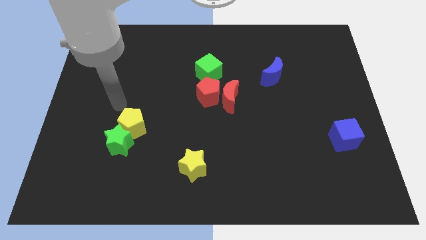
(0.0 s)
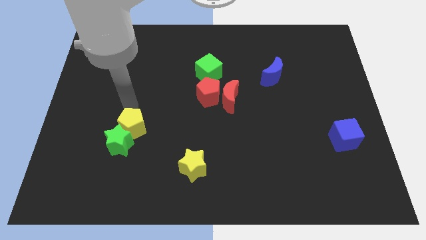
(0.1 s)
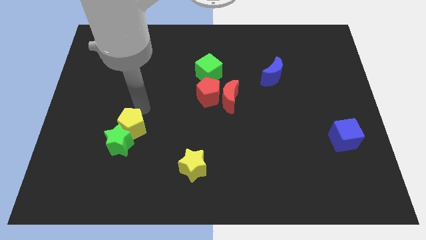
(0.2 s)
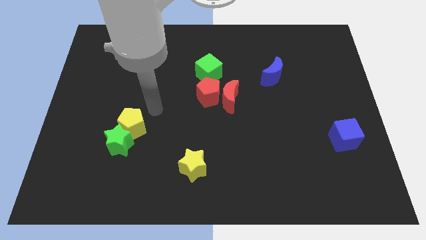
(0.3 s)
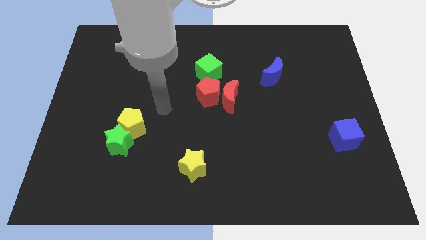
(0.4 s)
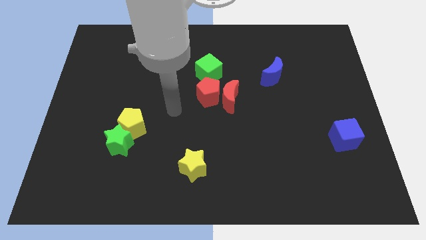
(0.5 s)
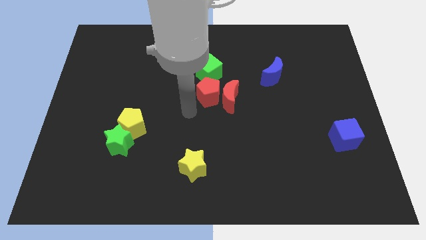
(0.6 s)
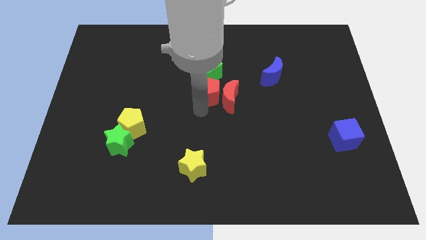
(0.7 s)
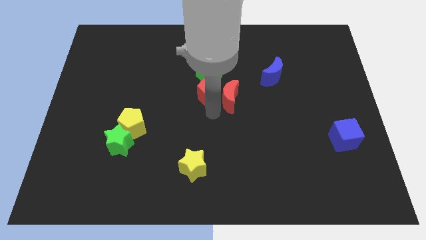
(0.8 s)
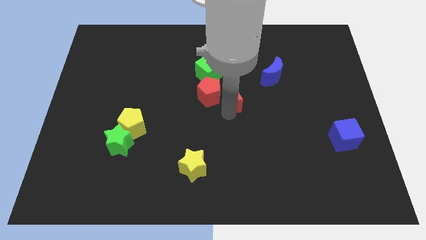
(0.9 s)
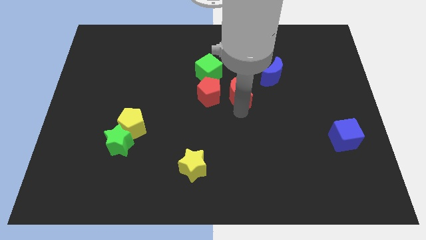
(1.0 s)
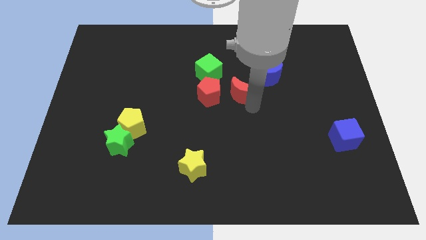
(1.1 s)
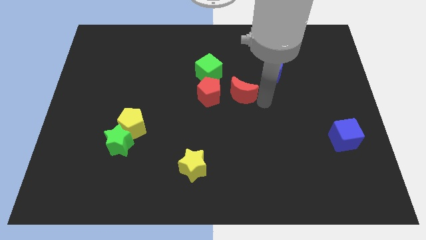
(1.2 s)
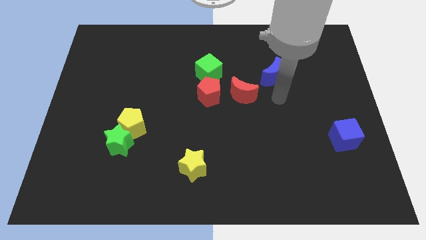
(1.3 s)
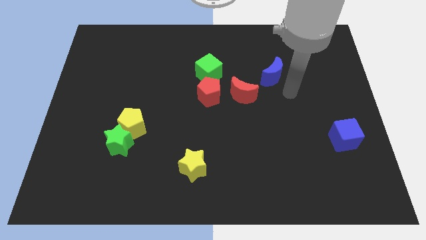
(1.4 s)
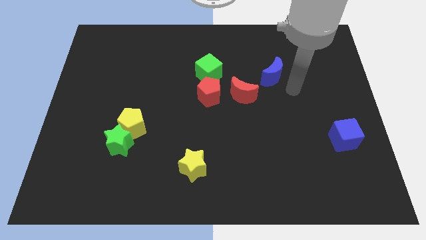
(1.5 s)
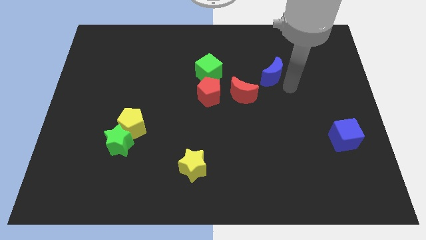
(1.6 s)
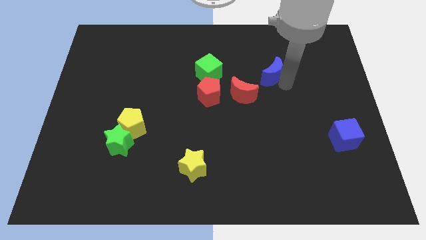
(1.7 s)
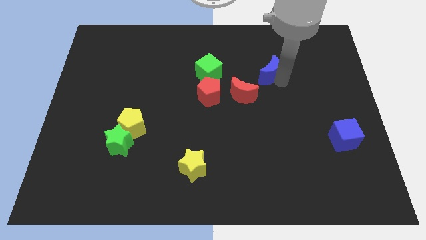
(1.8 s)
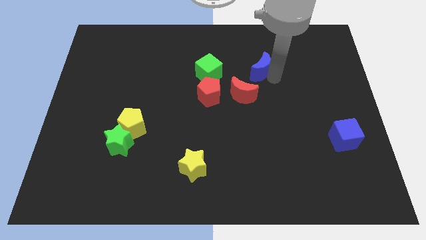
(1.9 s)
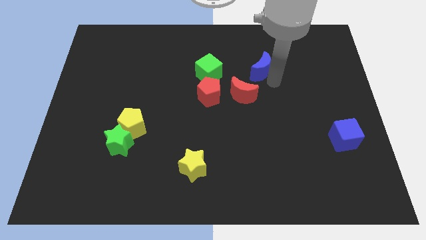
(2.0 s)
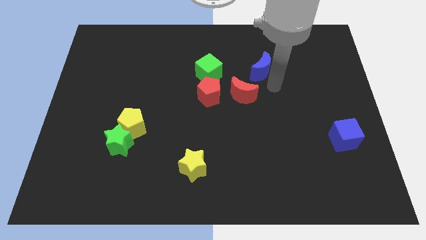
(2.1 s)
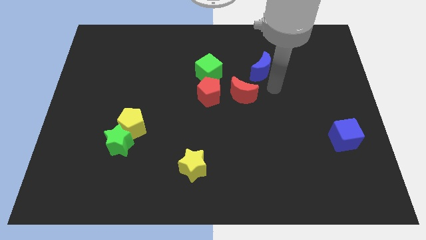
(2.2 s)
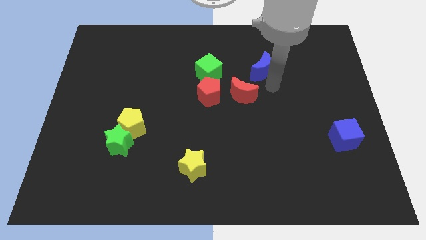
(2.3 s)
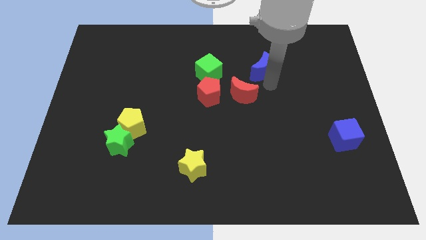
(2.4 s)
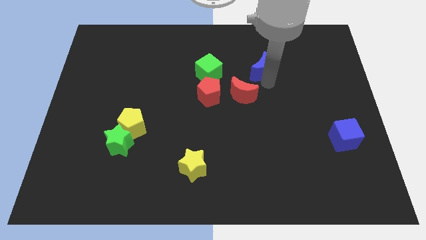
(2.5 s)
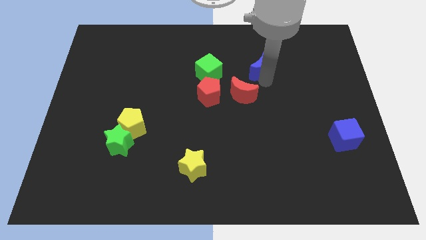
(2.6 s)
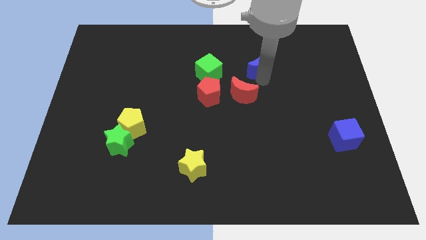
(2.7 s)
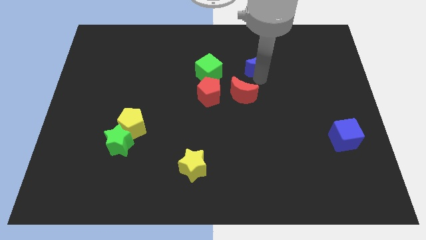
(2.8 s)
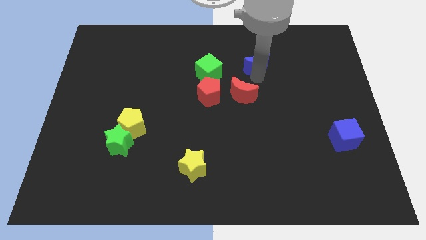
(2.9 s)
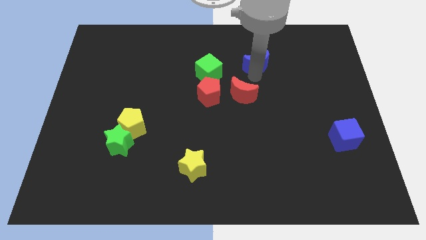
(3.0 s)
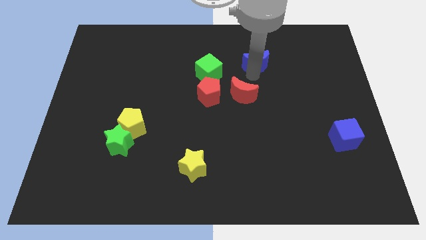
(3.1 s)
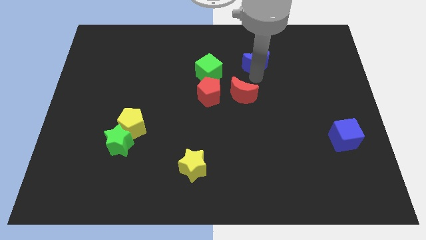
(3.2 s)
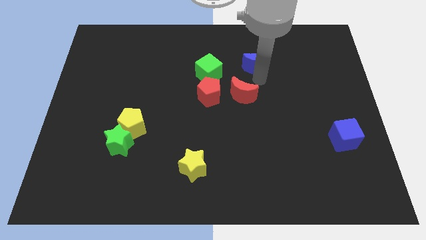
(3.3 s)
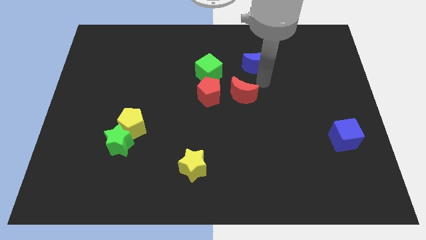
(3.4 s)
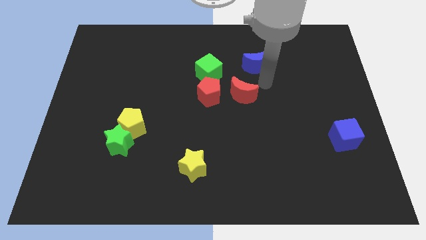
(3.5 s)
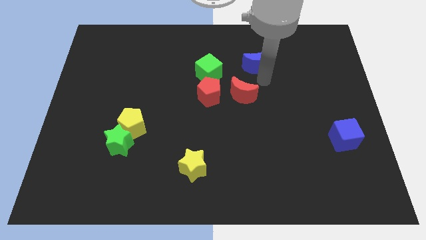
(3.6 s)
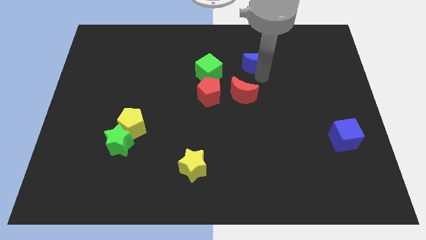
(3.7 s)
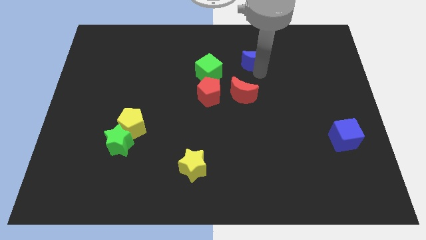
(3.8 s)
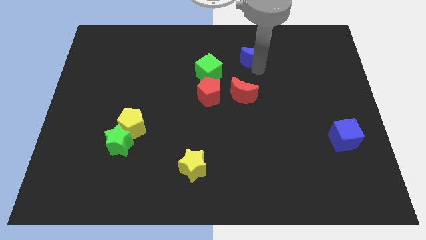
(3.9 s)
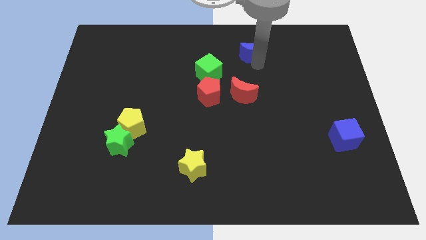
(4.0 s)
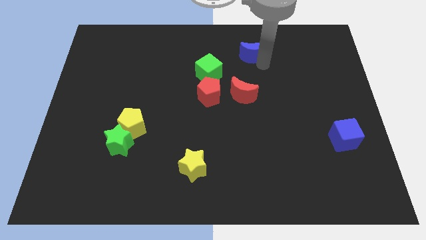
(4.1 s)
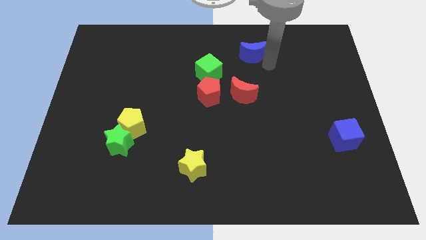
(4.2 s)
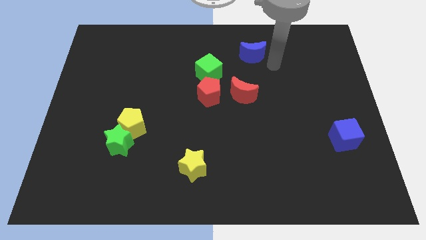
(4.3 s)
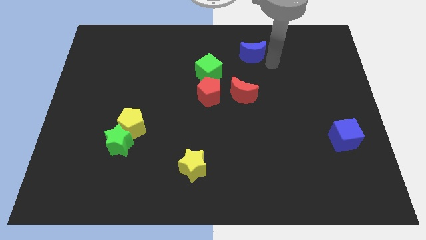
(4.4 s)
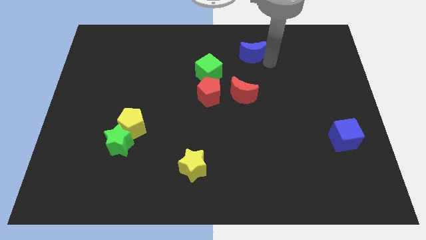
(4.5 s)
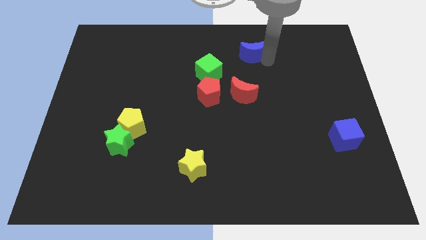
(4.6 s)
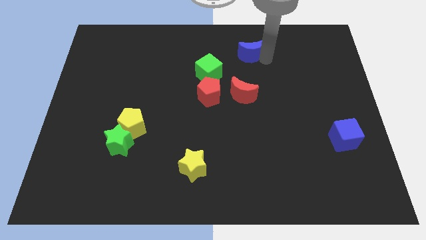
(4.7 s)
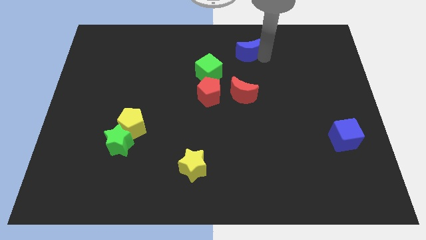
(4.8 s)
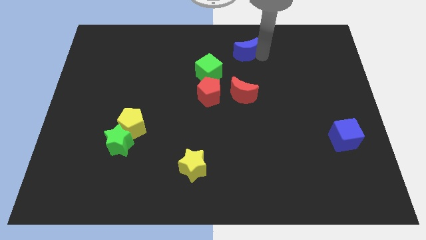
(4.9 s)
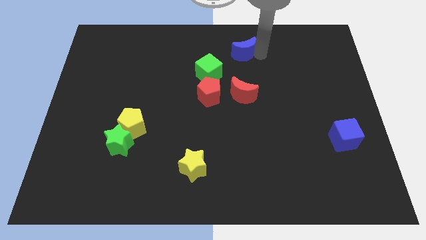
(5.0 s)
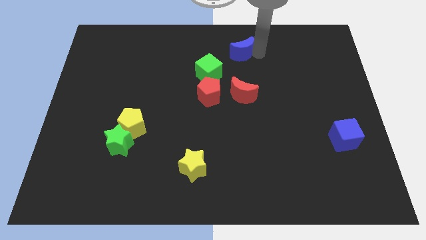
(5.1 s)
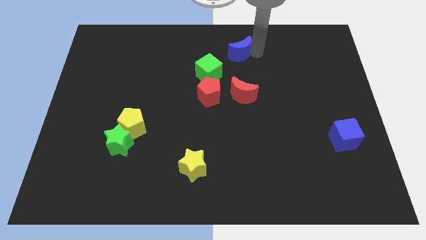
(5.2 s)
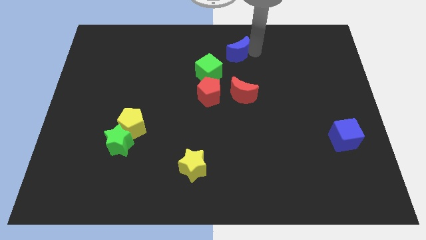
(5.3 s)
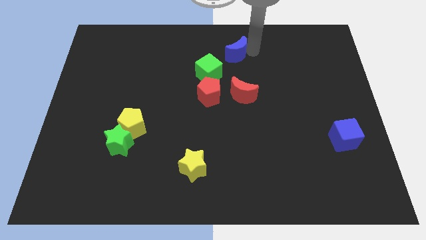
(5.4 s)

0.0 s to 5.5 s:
slide the blue moon to the top side
